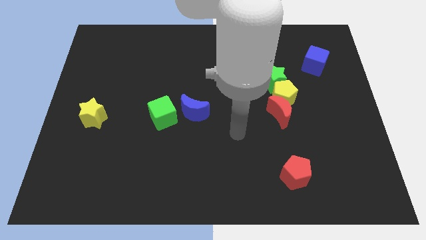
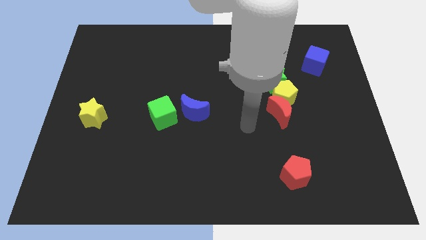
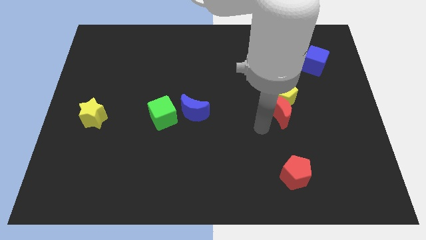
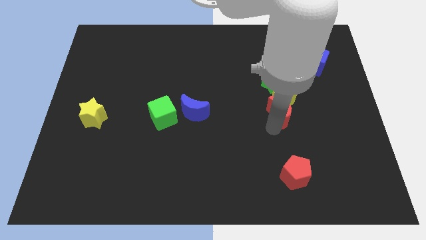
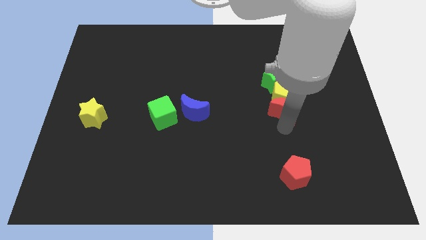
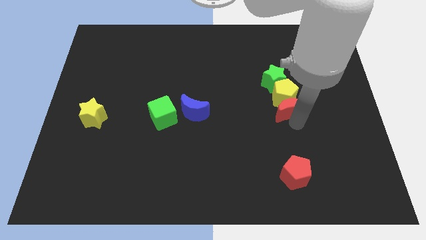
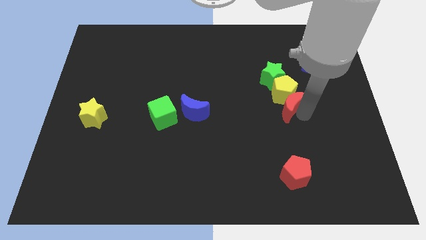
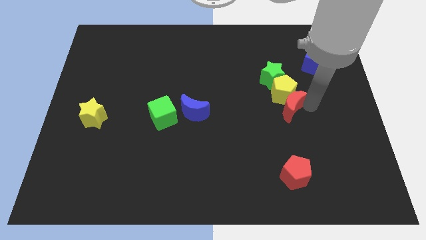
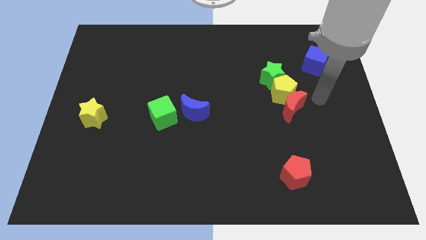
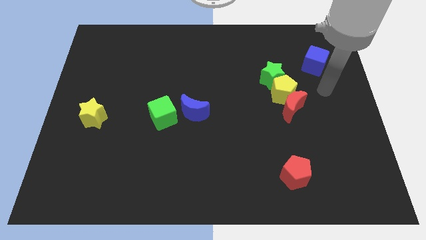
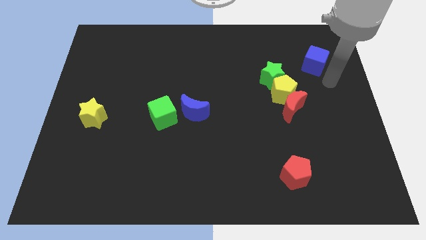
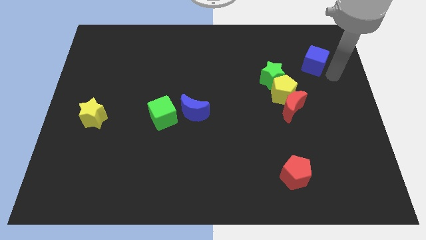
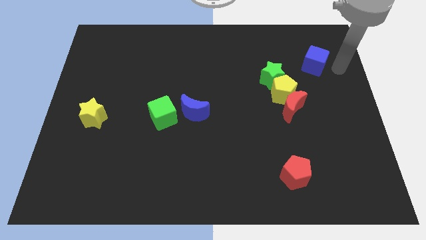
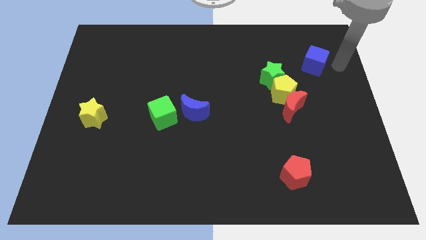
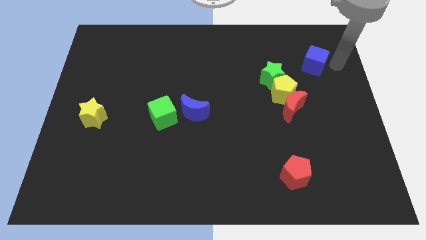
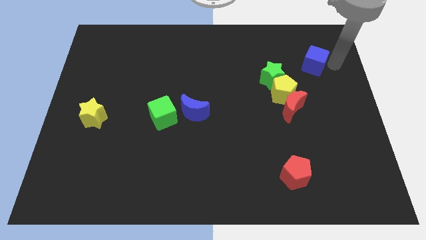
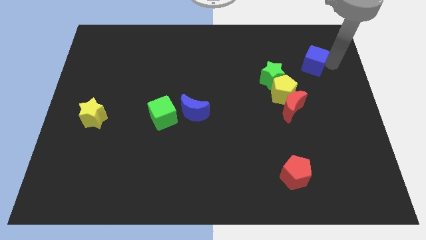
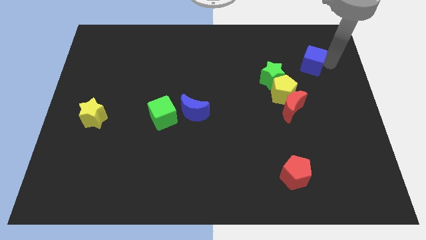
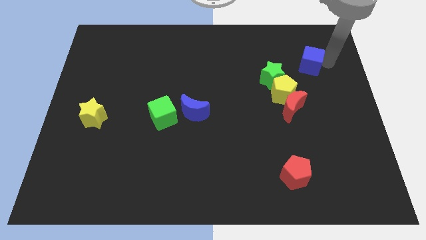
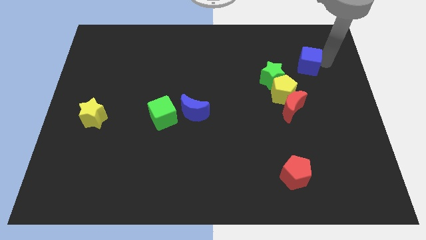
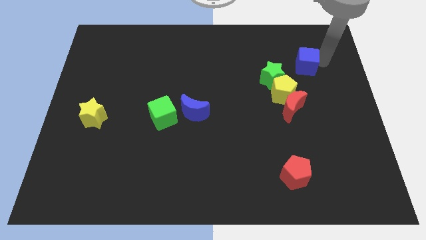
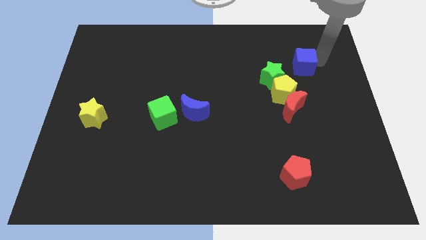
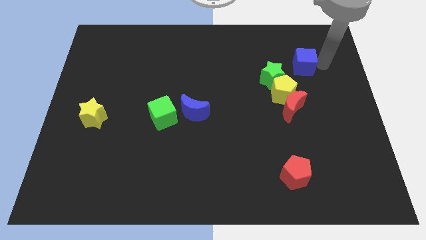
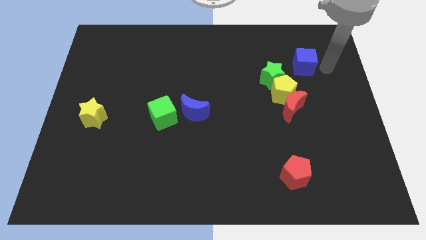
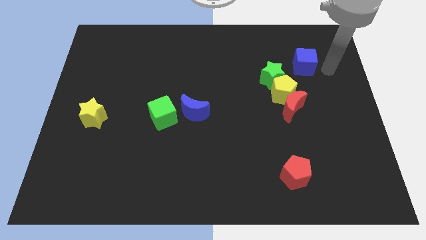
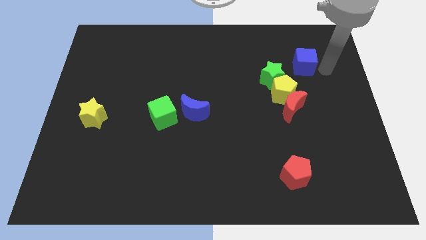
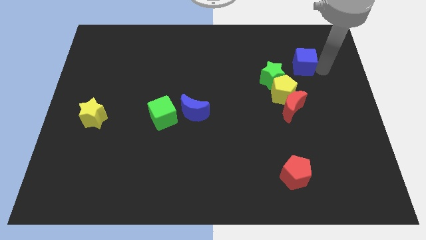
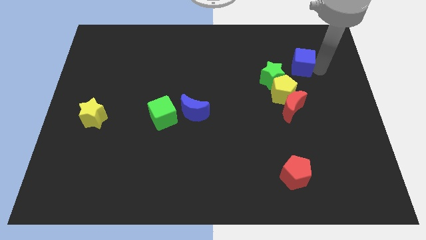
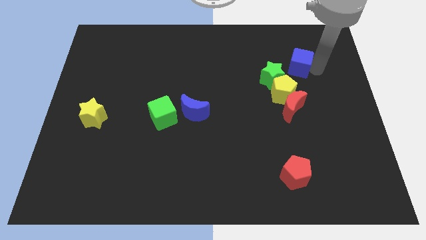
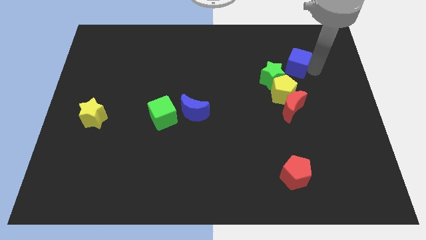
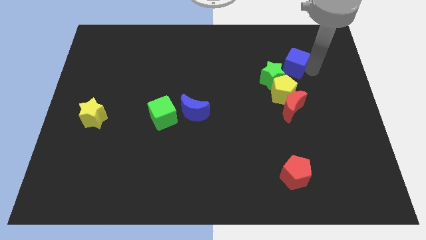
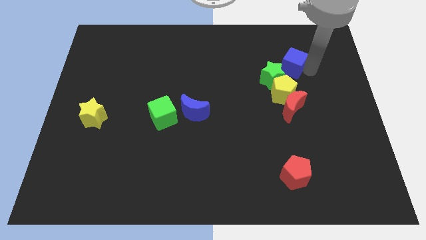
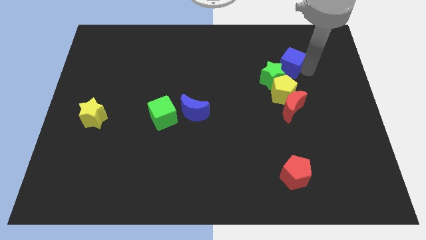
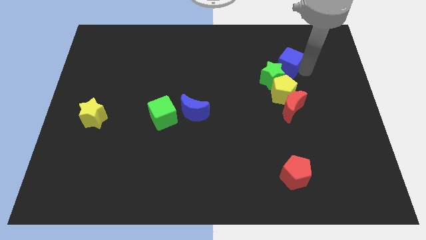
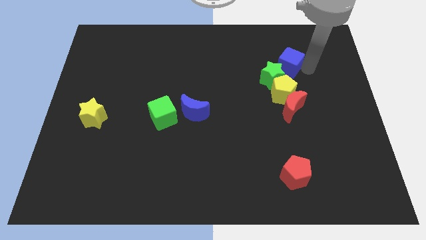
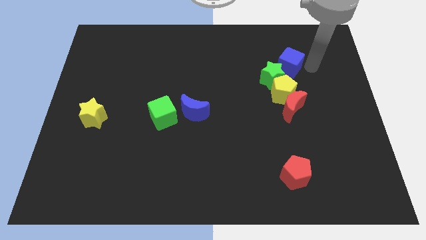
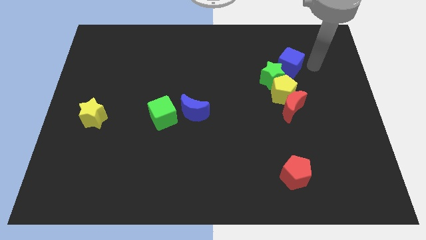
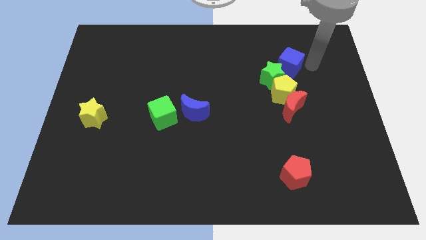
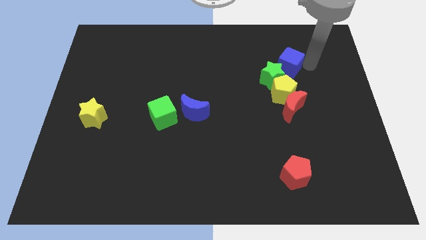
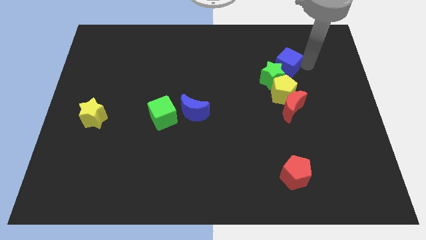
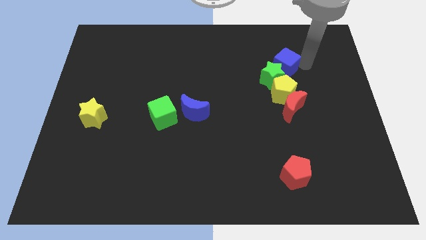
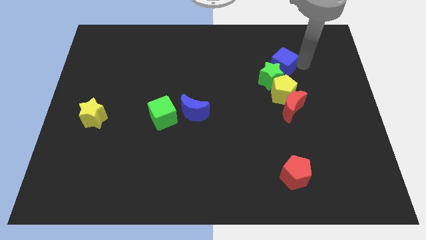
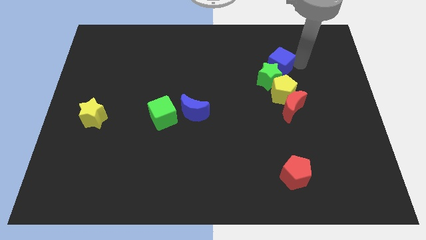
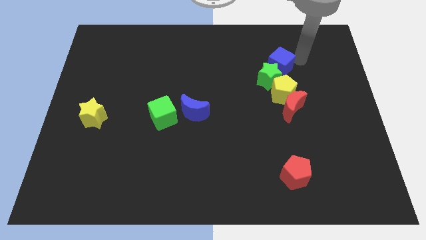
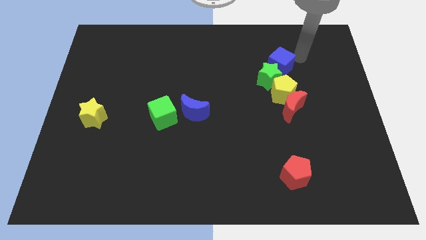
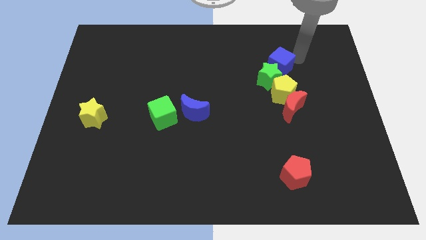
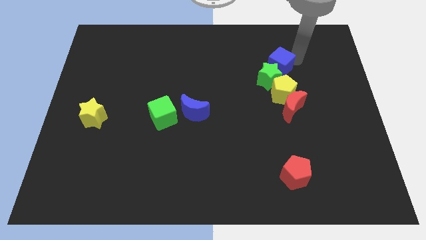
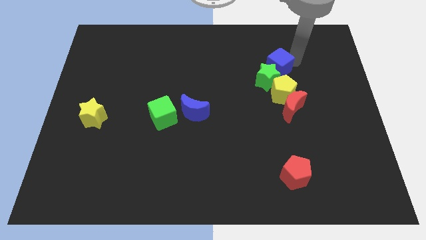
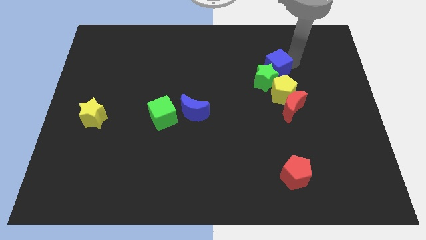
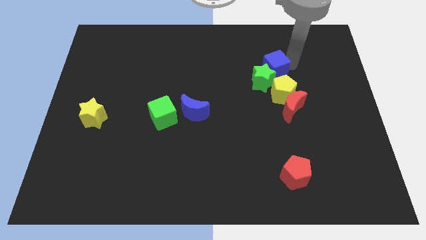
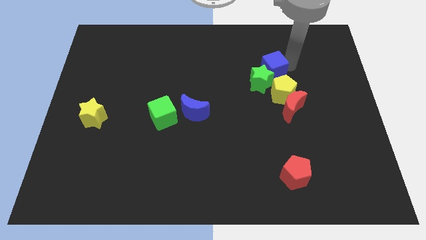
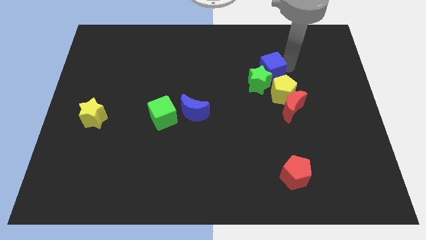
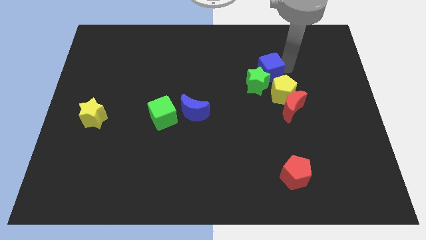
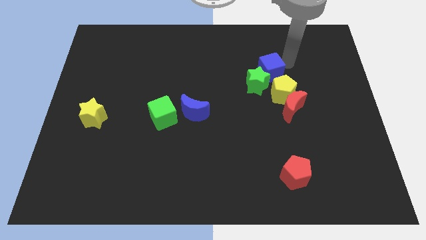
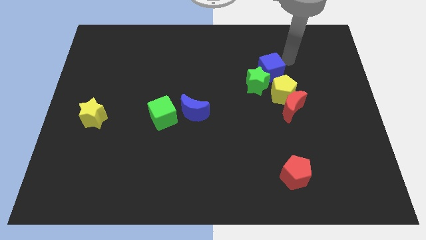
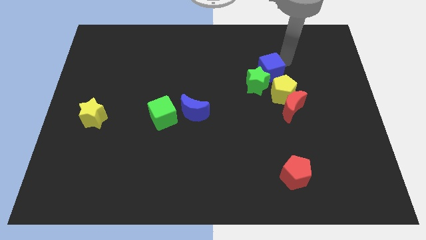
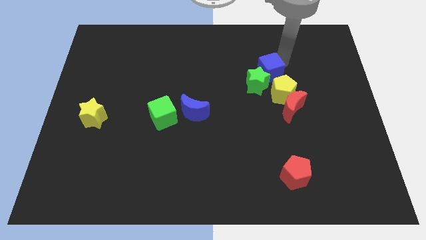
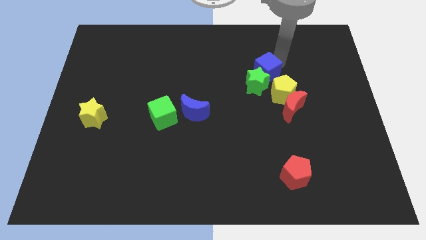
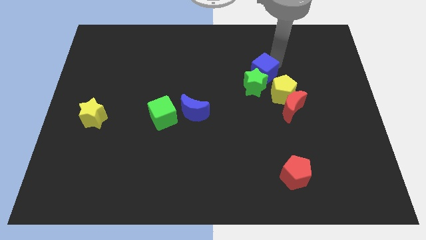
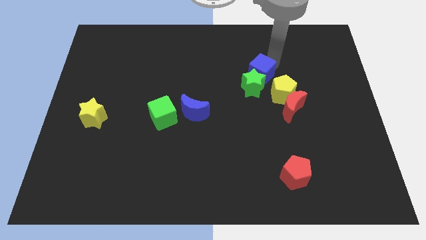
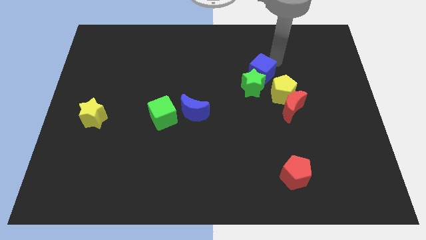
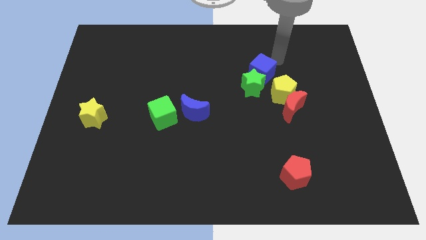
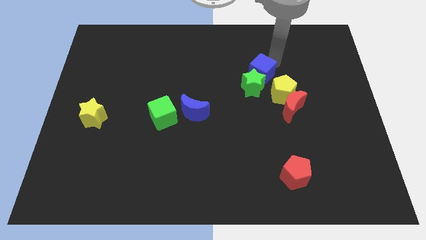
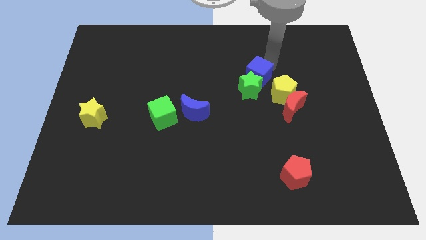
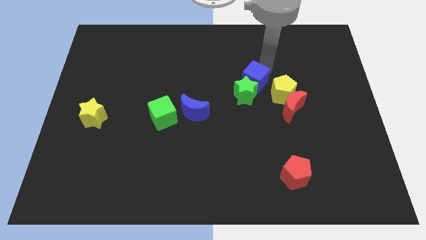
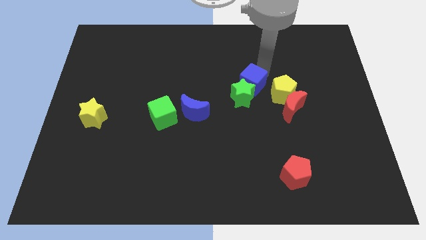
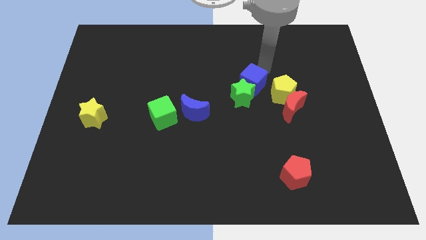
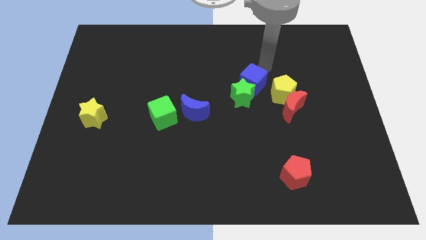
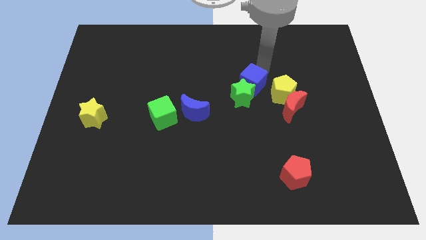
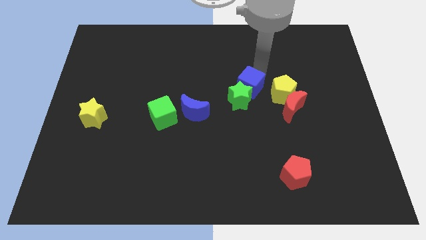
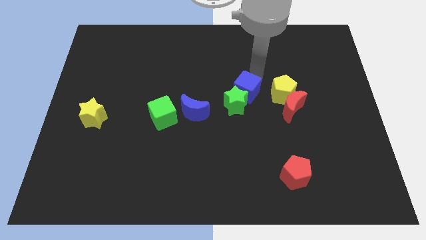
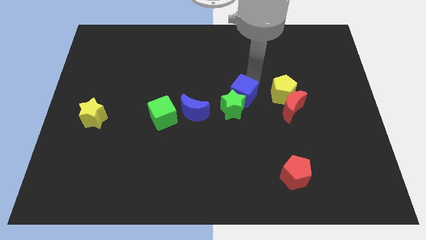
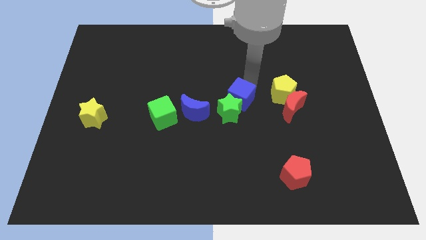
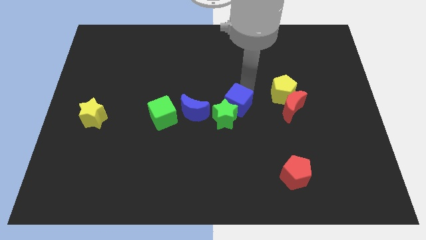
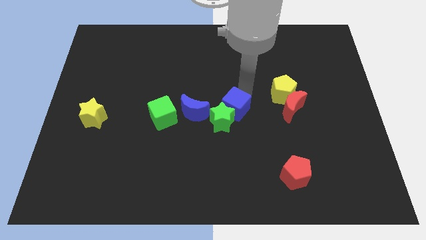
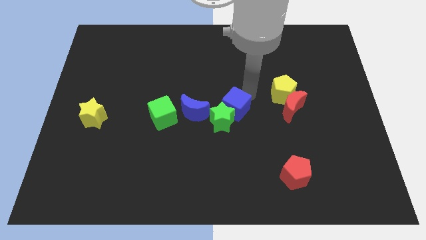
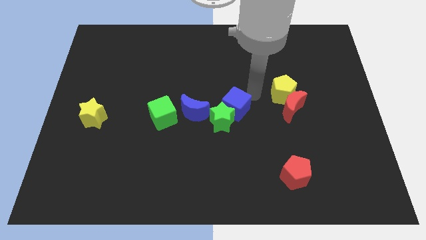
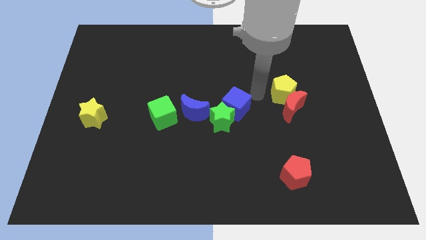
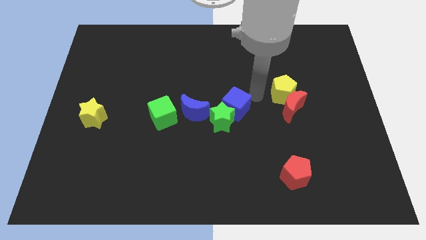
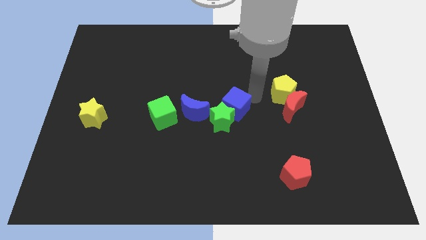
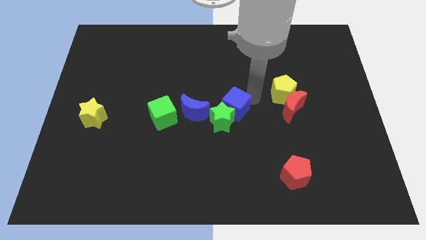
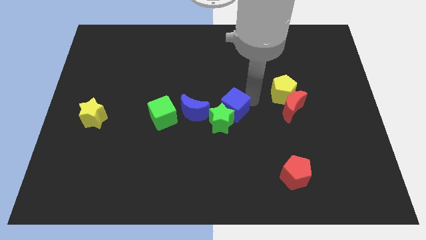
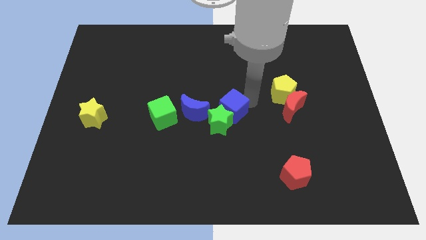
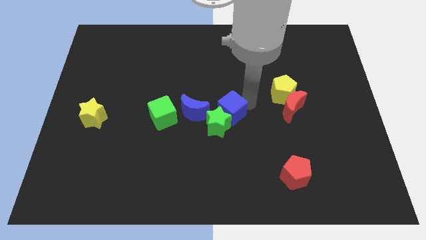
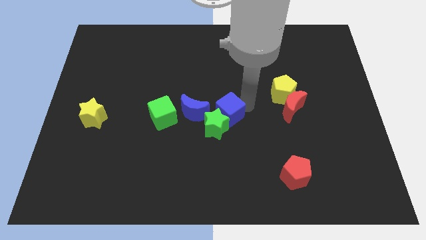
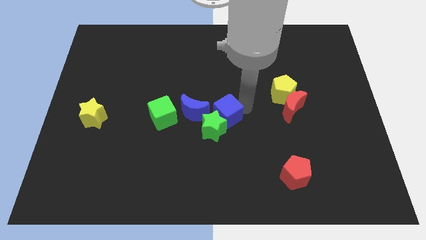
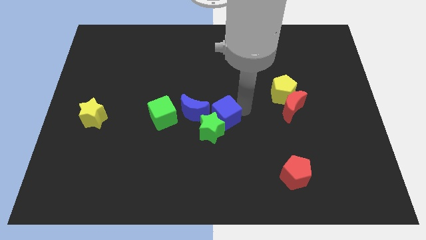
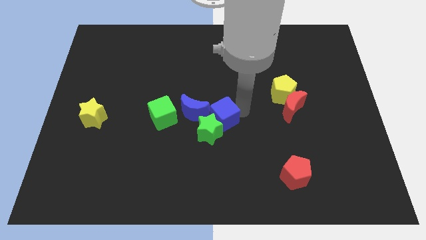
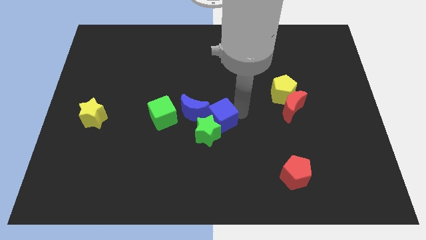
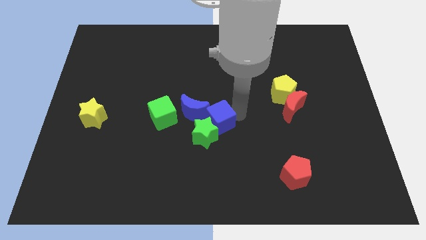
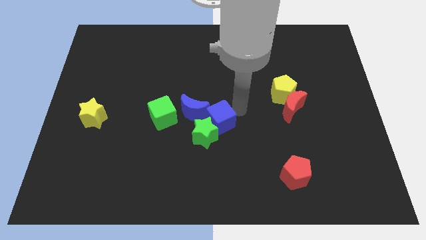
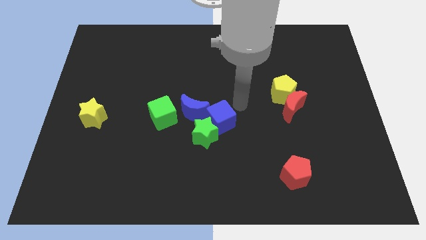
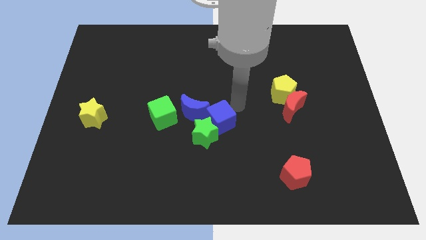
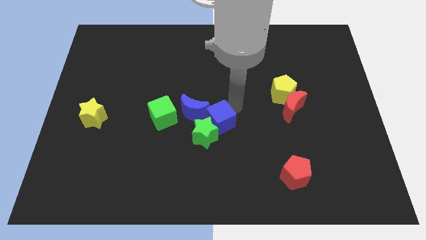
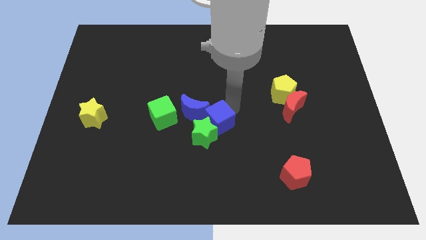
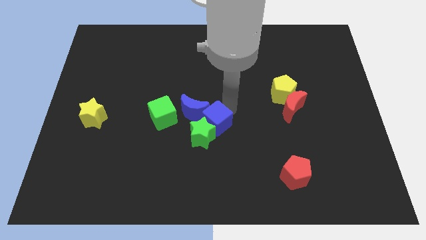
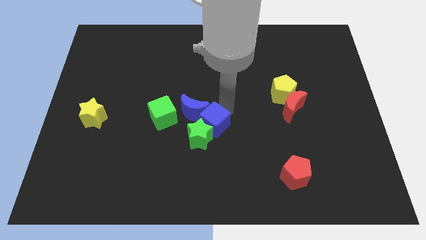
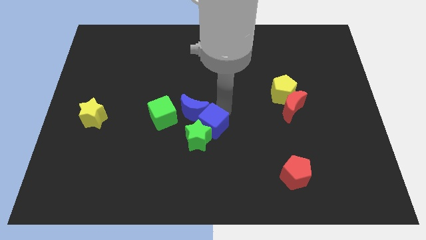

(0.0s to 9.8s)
slide the blue cube to the bottom of the blue moon
